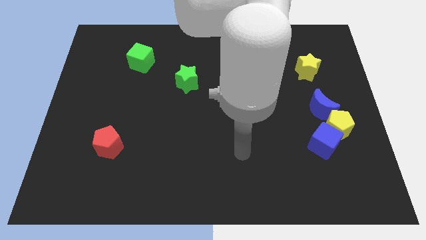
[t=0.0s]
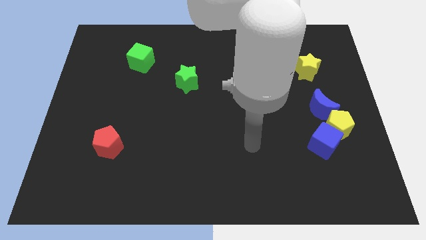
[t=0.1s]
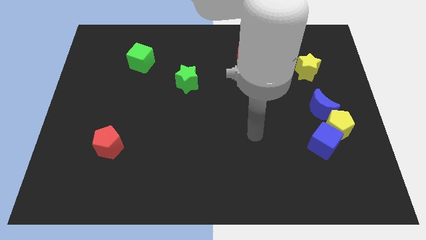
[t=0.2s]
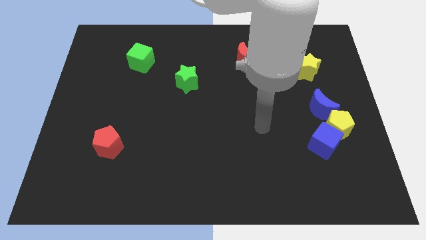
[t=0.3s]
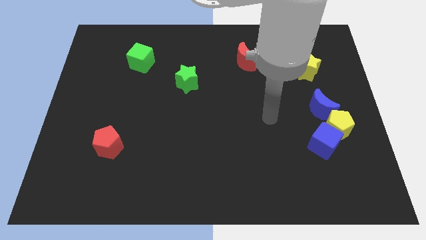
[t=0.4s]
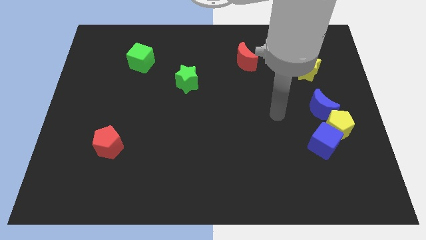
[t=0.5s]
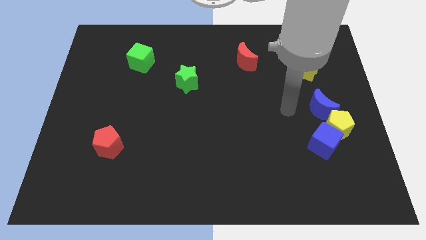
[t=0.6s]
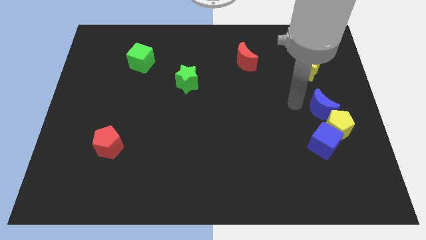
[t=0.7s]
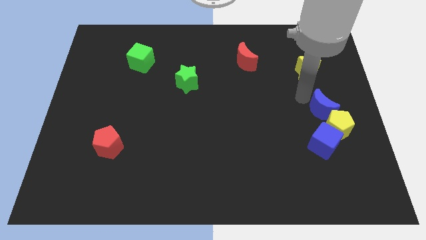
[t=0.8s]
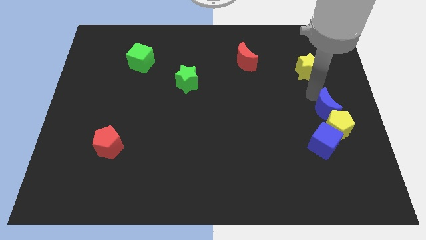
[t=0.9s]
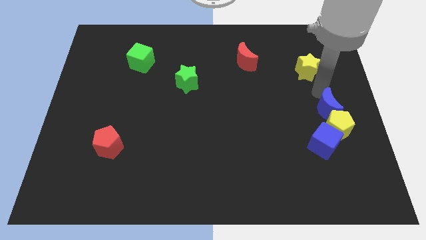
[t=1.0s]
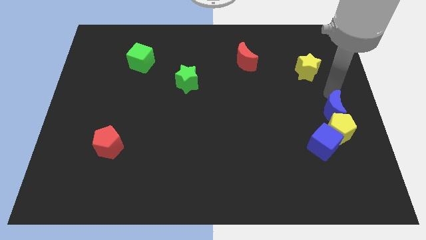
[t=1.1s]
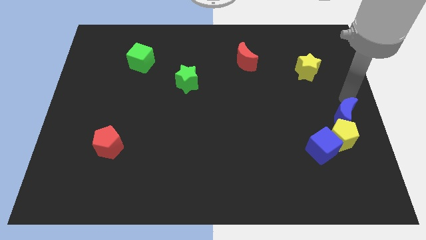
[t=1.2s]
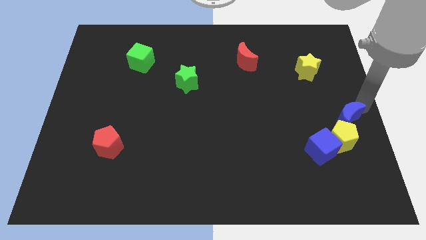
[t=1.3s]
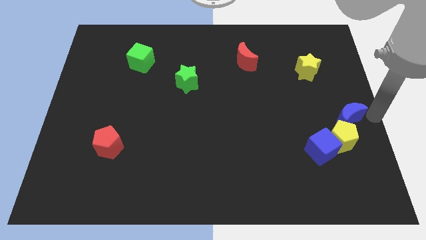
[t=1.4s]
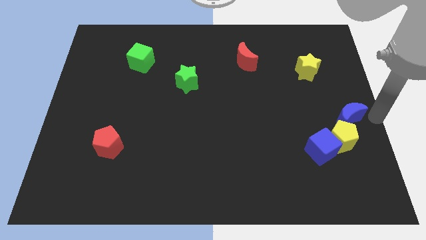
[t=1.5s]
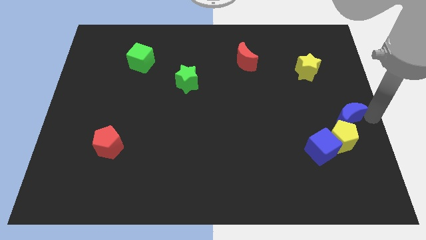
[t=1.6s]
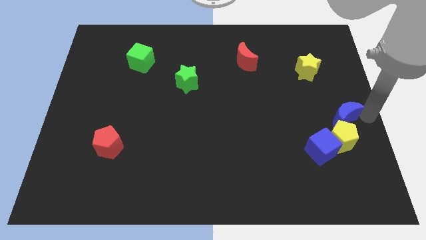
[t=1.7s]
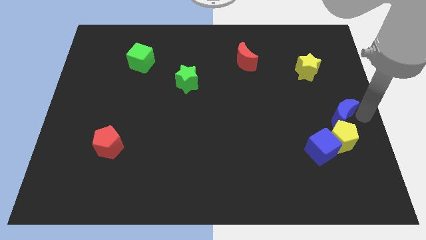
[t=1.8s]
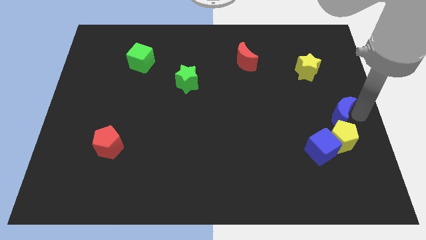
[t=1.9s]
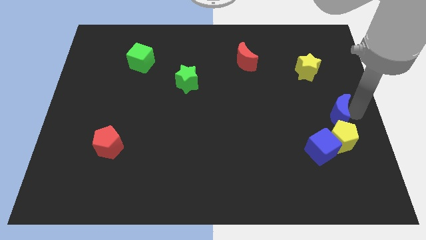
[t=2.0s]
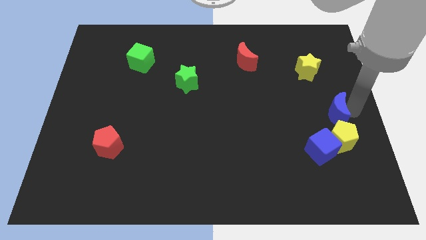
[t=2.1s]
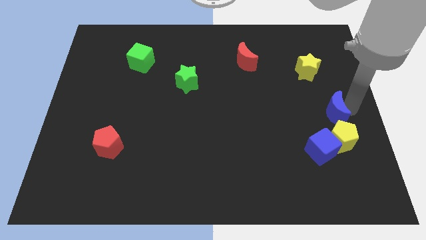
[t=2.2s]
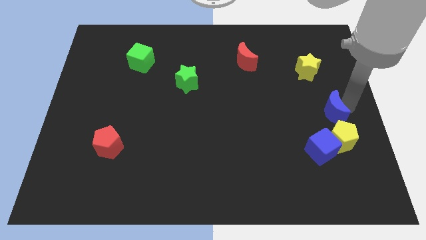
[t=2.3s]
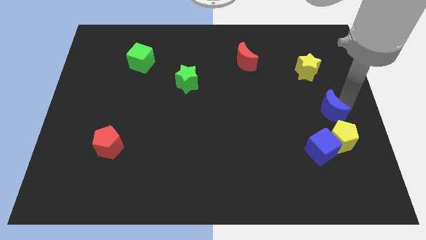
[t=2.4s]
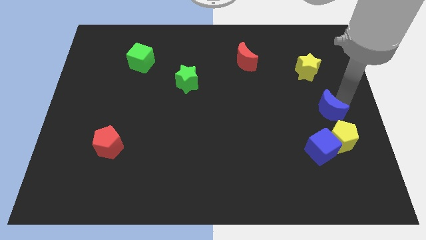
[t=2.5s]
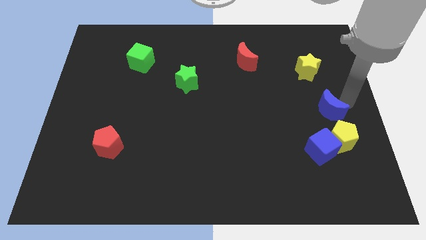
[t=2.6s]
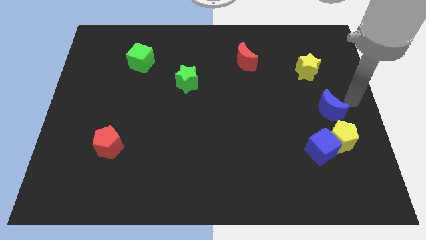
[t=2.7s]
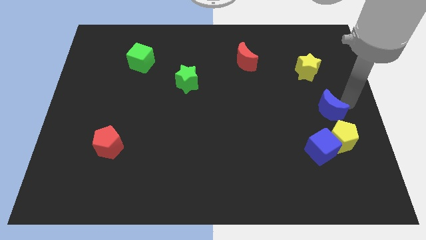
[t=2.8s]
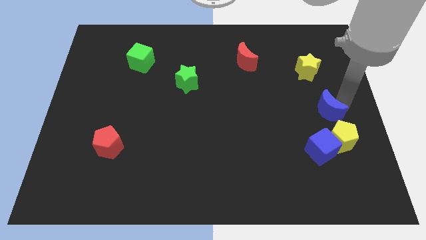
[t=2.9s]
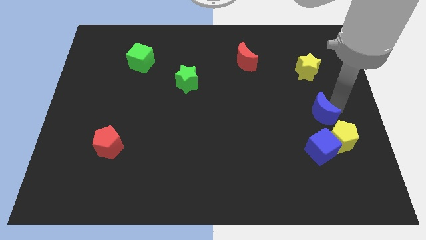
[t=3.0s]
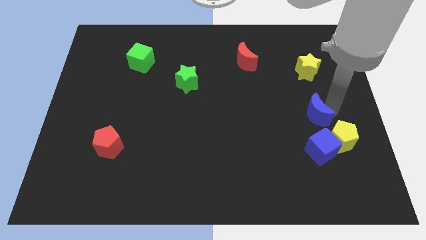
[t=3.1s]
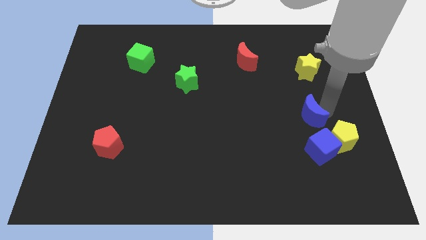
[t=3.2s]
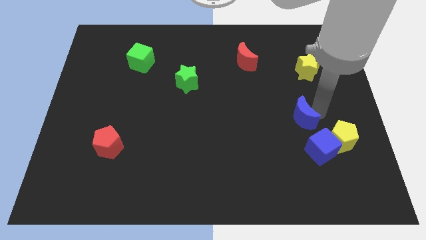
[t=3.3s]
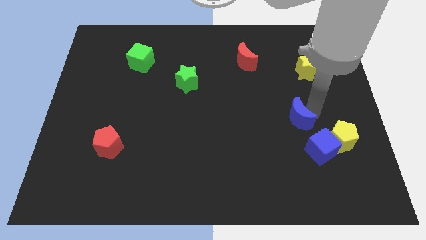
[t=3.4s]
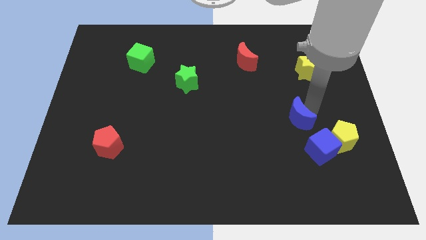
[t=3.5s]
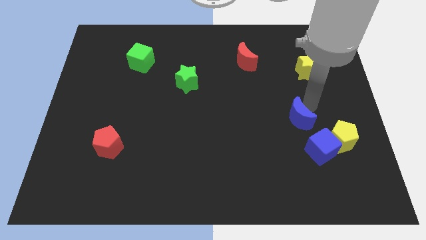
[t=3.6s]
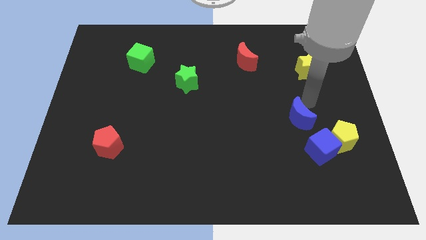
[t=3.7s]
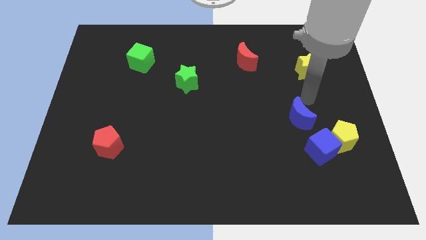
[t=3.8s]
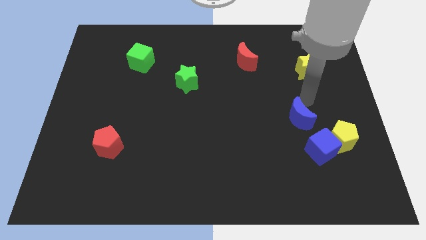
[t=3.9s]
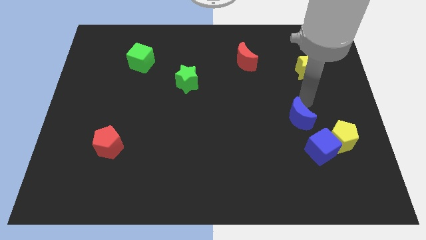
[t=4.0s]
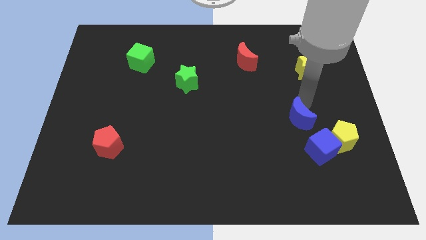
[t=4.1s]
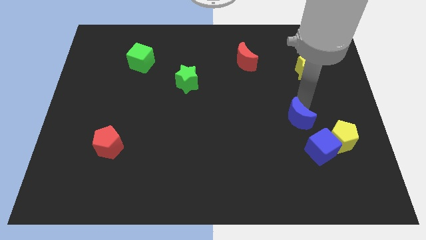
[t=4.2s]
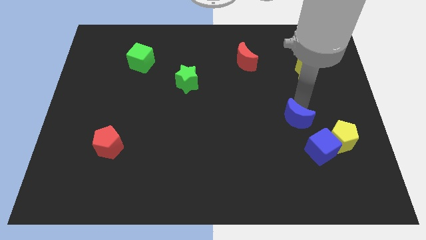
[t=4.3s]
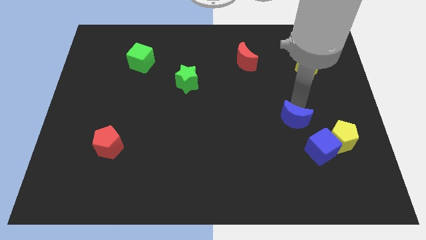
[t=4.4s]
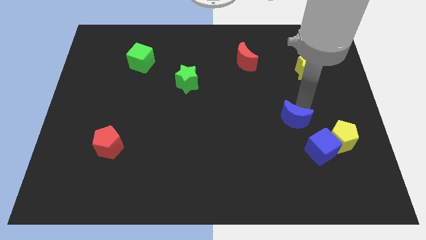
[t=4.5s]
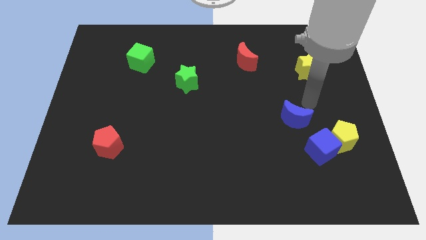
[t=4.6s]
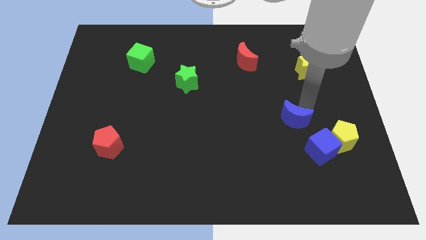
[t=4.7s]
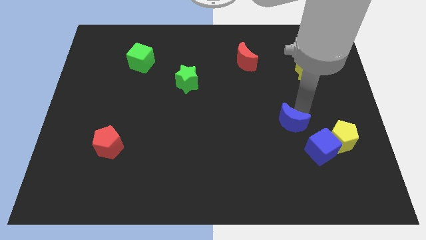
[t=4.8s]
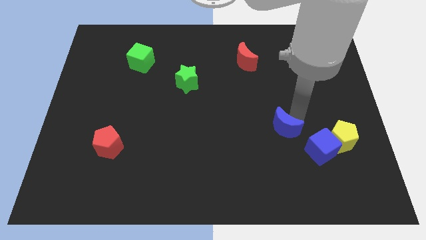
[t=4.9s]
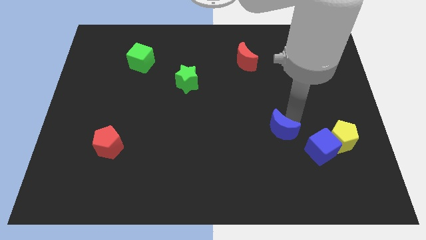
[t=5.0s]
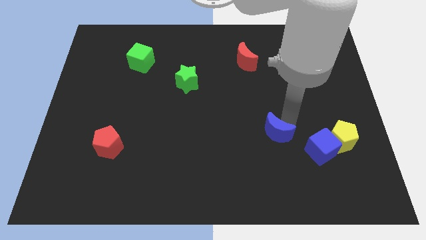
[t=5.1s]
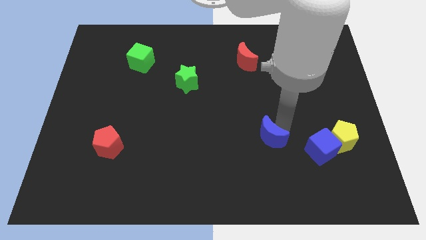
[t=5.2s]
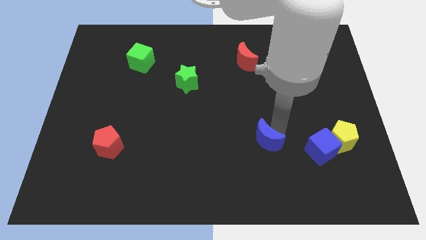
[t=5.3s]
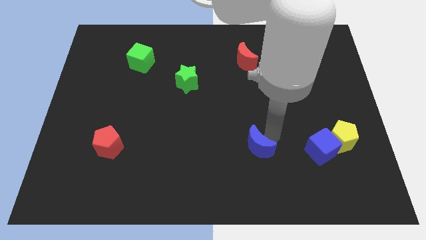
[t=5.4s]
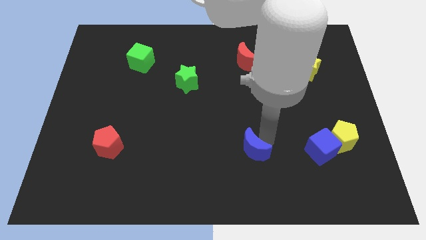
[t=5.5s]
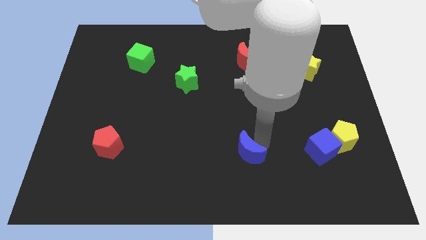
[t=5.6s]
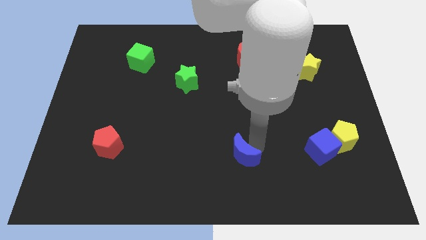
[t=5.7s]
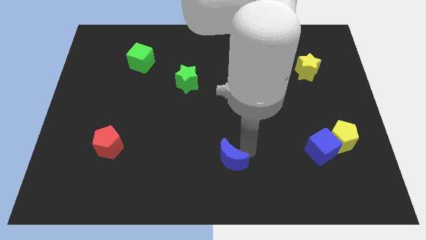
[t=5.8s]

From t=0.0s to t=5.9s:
push the blue moon to the bottom

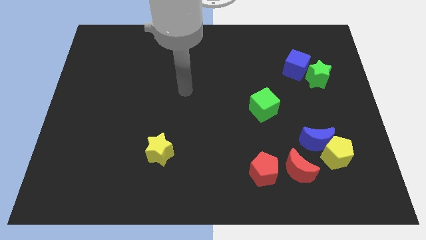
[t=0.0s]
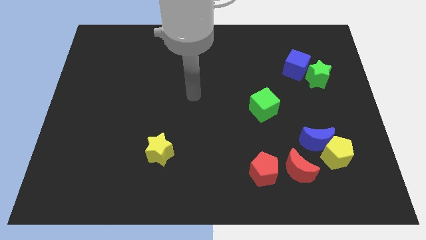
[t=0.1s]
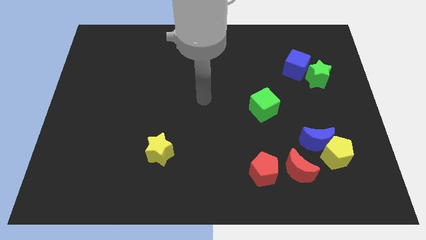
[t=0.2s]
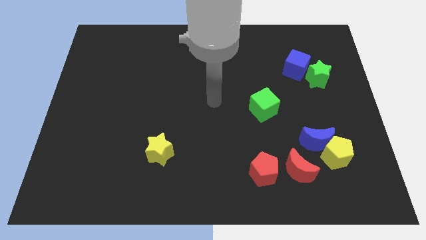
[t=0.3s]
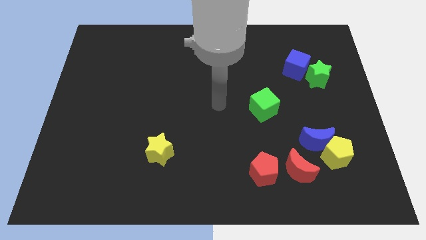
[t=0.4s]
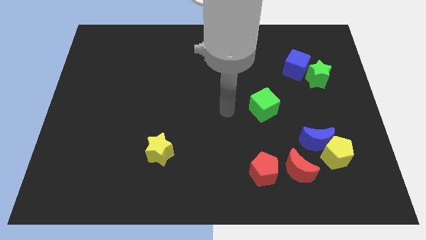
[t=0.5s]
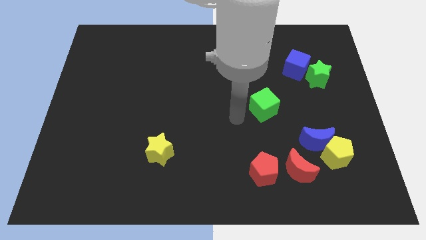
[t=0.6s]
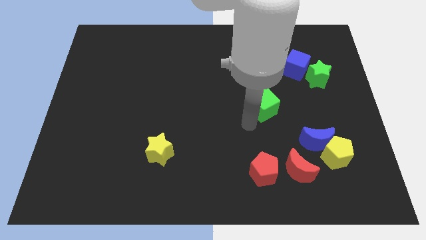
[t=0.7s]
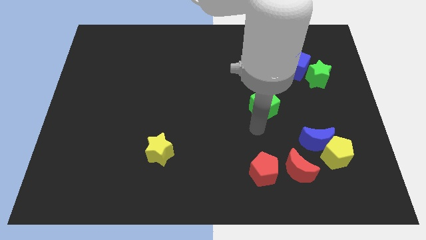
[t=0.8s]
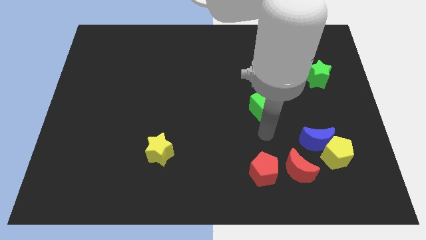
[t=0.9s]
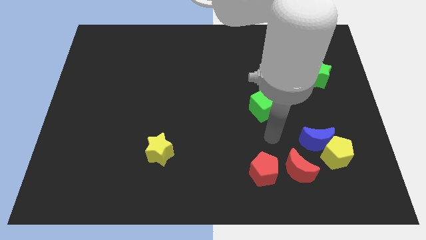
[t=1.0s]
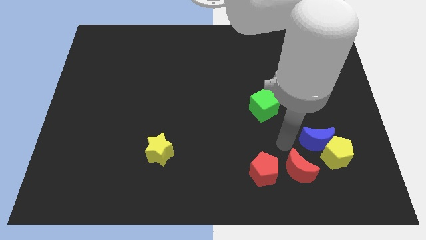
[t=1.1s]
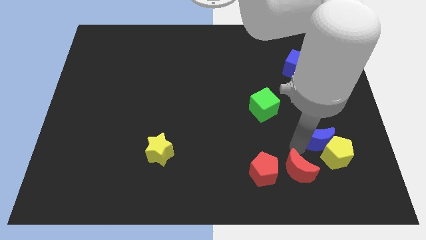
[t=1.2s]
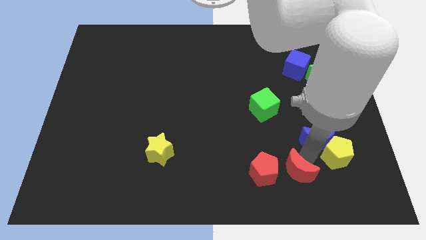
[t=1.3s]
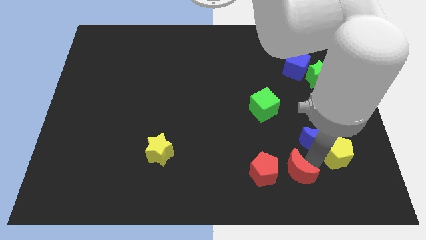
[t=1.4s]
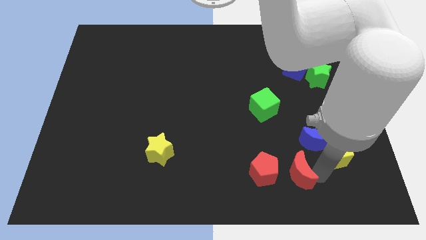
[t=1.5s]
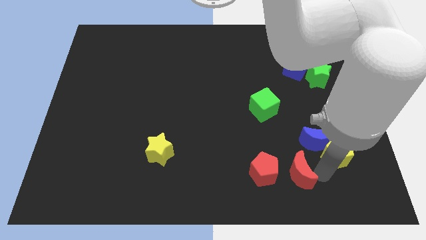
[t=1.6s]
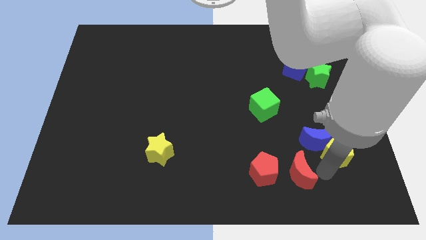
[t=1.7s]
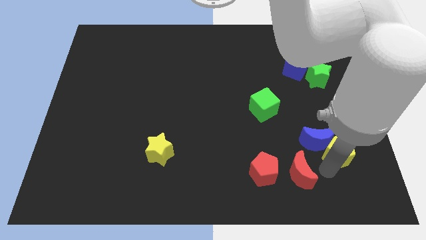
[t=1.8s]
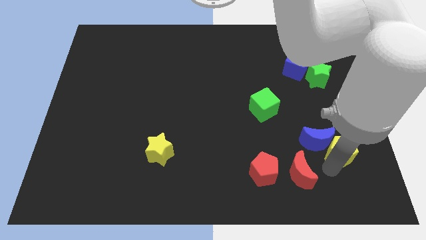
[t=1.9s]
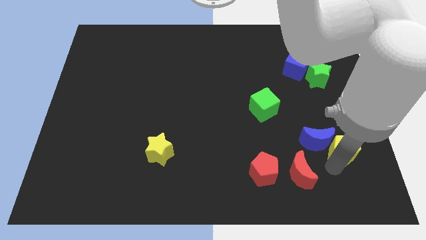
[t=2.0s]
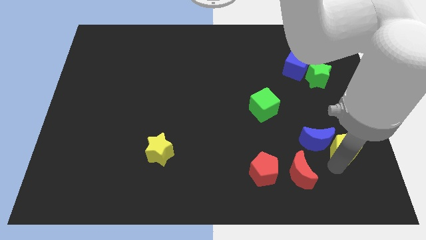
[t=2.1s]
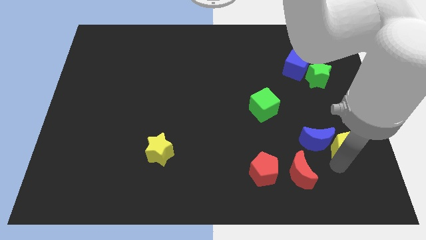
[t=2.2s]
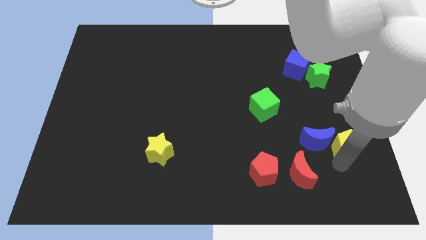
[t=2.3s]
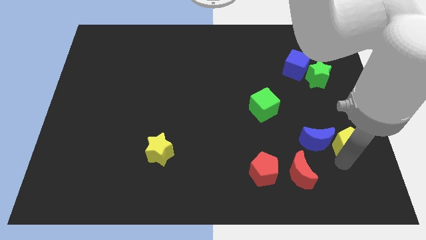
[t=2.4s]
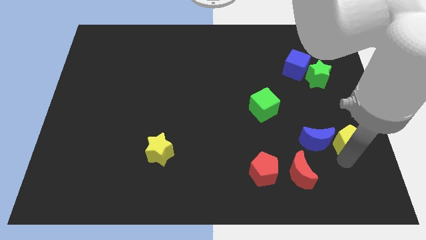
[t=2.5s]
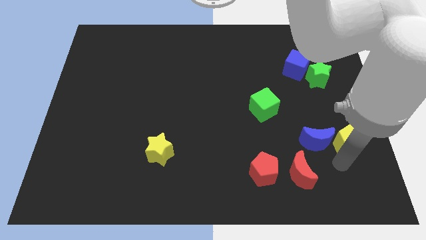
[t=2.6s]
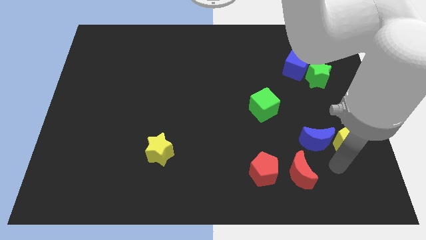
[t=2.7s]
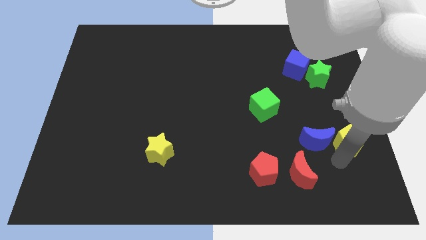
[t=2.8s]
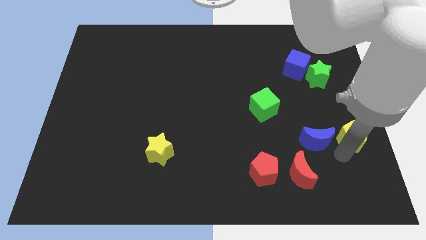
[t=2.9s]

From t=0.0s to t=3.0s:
move the yellow pentagon to the right side
